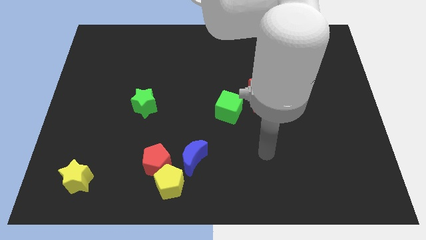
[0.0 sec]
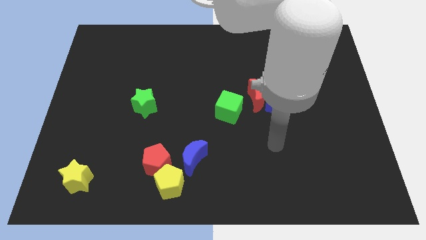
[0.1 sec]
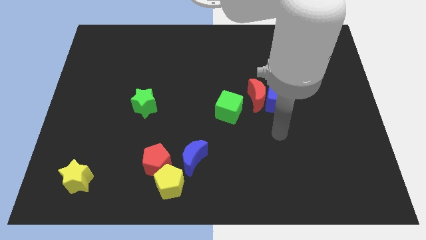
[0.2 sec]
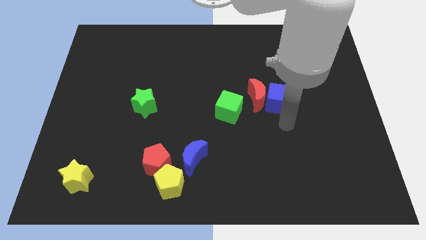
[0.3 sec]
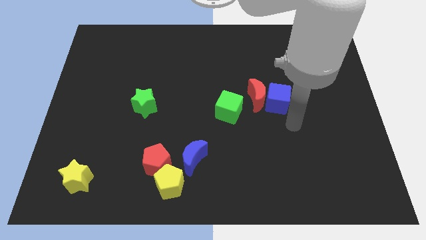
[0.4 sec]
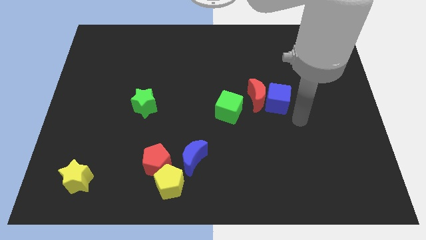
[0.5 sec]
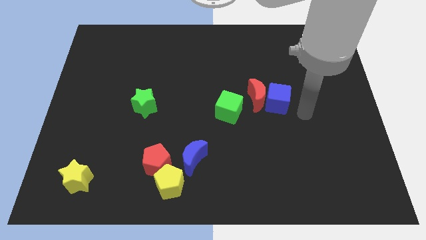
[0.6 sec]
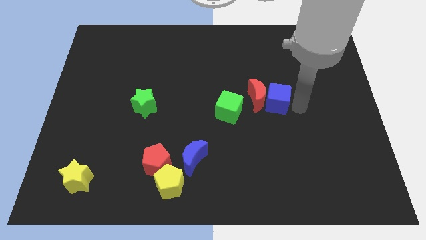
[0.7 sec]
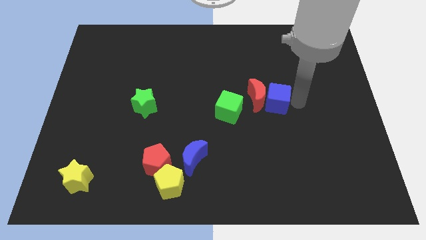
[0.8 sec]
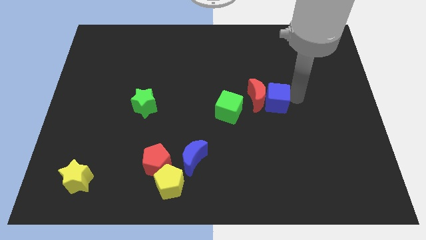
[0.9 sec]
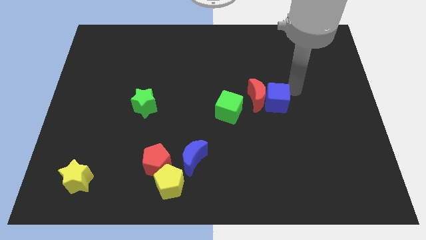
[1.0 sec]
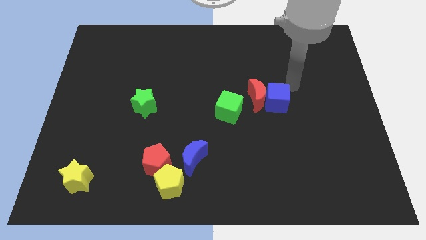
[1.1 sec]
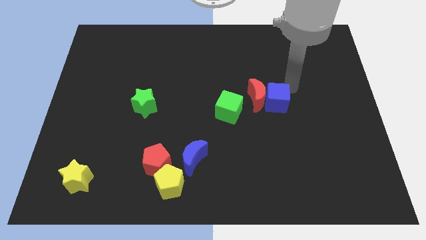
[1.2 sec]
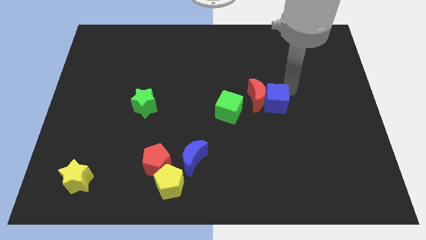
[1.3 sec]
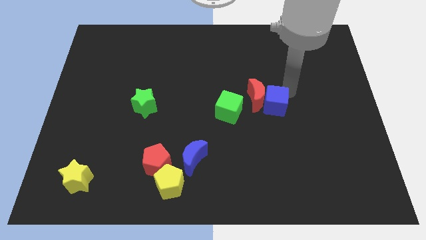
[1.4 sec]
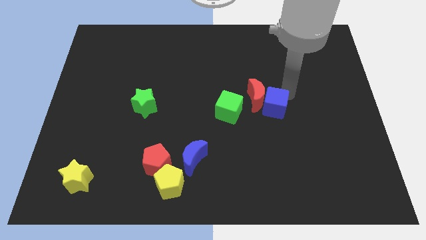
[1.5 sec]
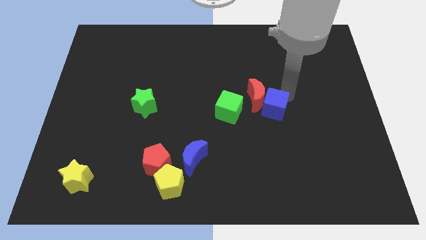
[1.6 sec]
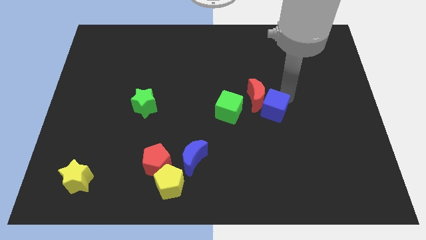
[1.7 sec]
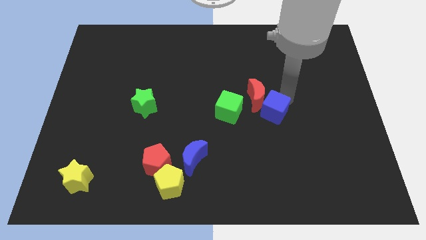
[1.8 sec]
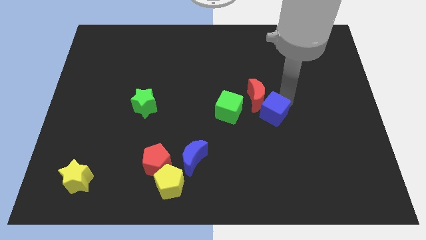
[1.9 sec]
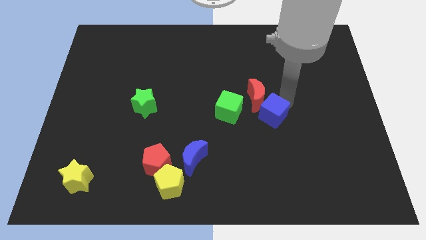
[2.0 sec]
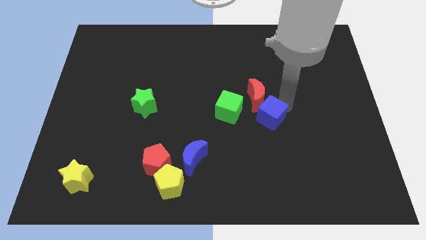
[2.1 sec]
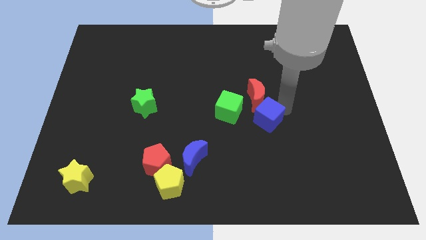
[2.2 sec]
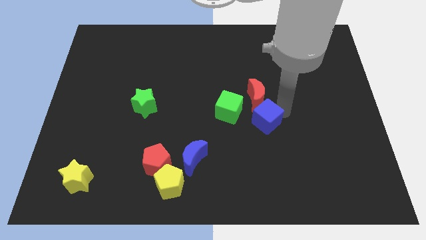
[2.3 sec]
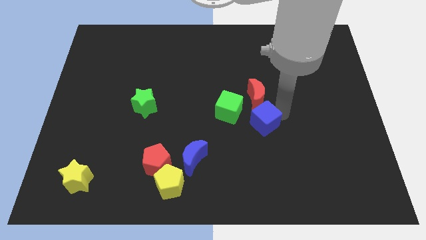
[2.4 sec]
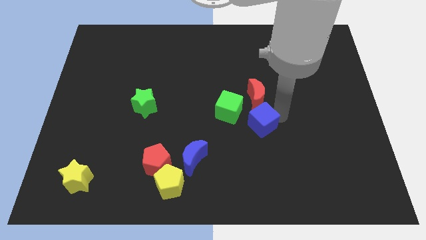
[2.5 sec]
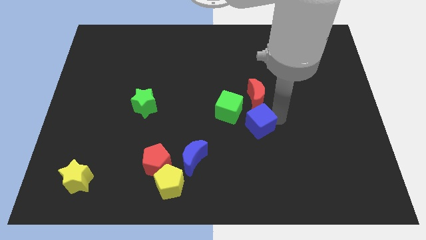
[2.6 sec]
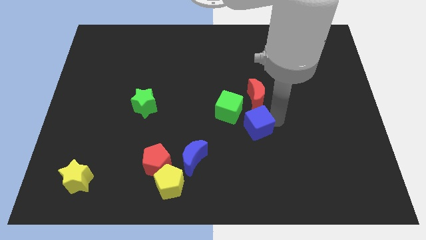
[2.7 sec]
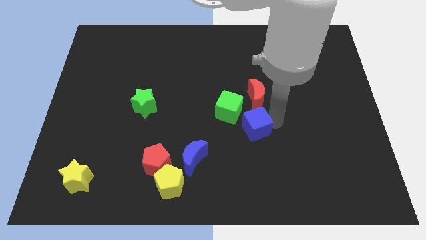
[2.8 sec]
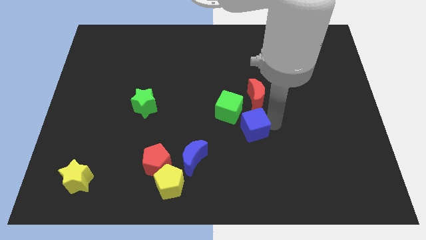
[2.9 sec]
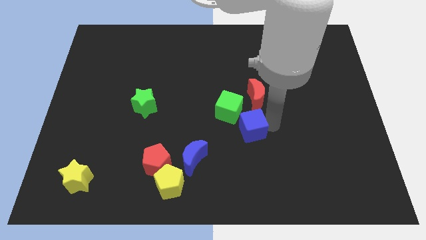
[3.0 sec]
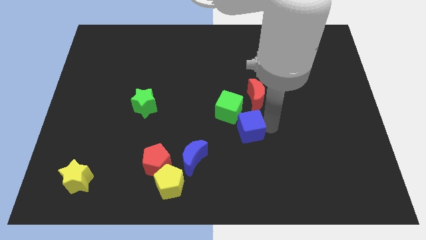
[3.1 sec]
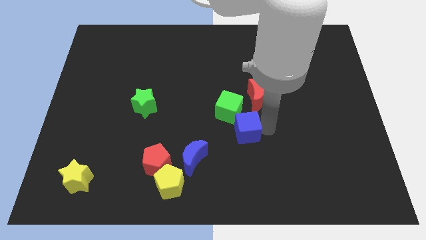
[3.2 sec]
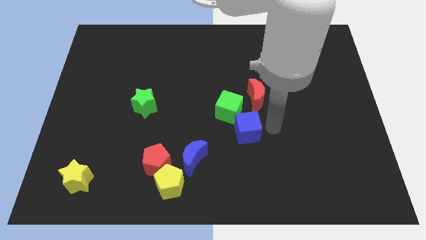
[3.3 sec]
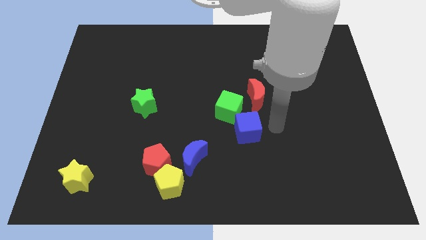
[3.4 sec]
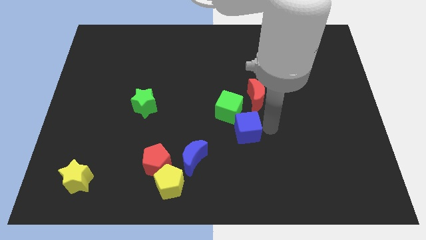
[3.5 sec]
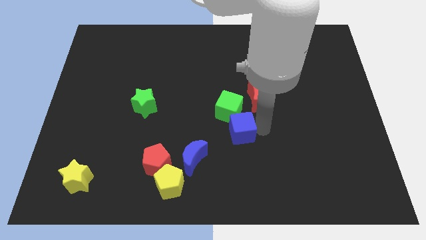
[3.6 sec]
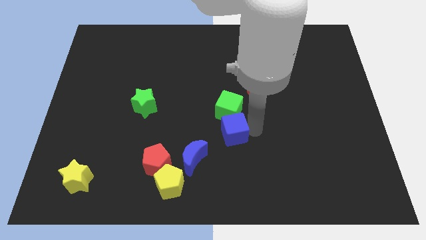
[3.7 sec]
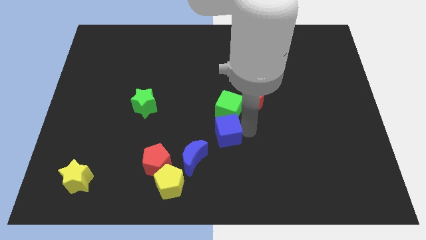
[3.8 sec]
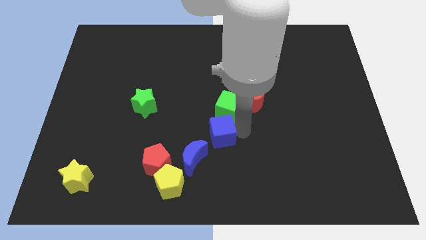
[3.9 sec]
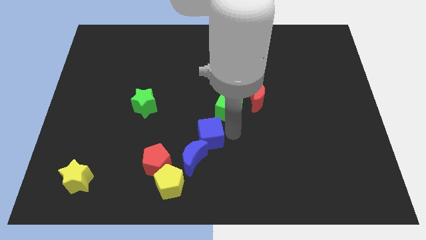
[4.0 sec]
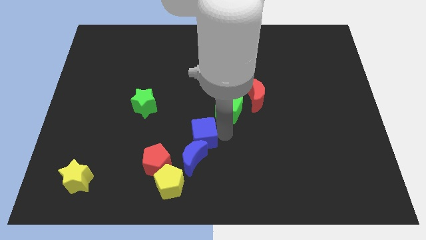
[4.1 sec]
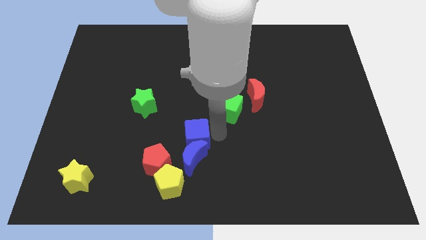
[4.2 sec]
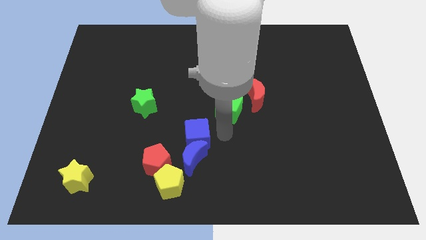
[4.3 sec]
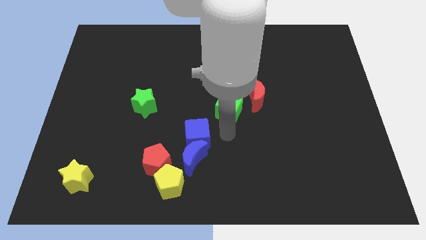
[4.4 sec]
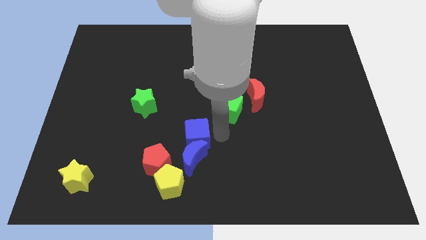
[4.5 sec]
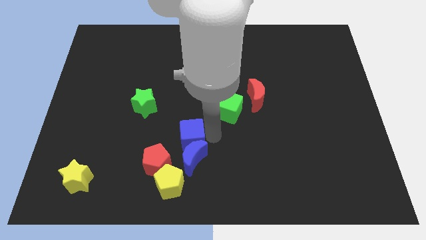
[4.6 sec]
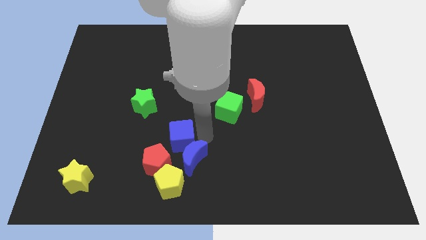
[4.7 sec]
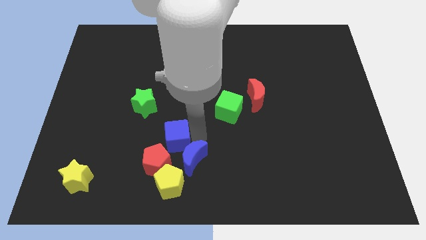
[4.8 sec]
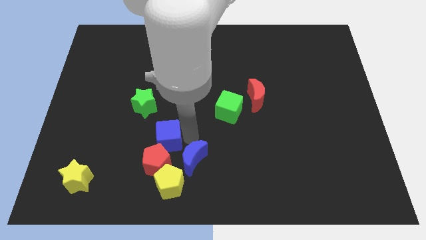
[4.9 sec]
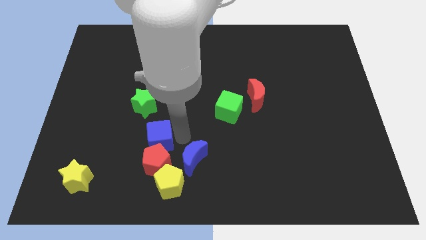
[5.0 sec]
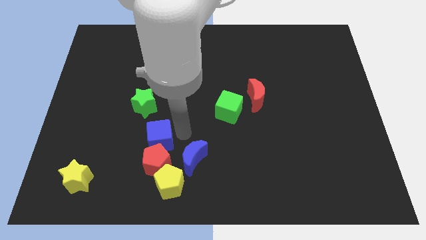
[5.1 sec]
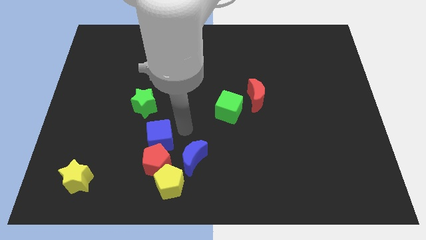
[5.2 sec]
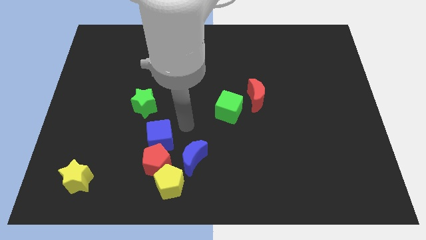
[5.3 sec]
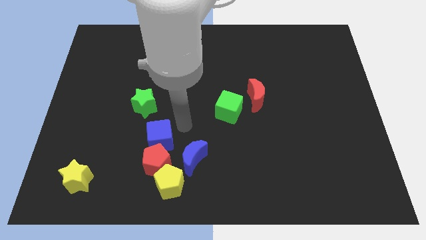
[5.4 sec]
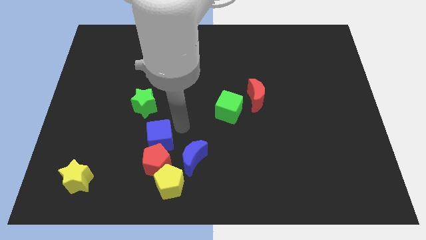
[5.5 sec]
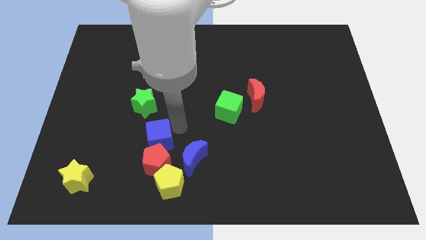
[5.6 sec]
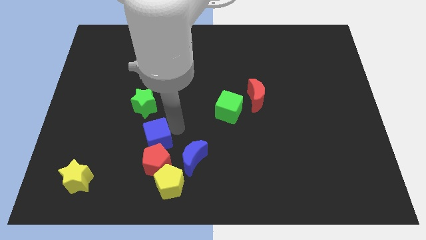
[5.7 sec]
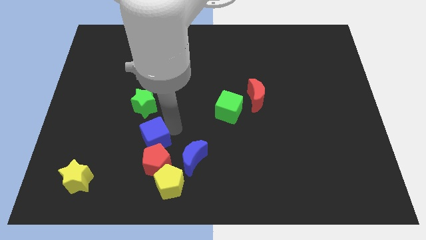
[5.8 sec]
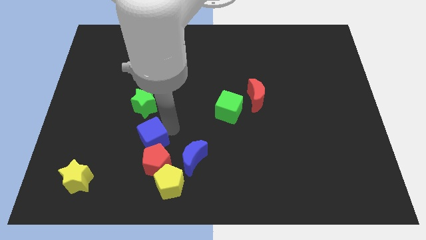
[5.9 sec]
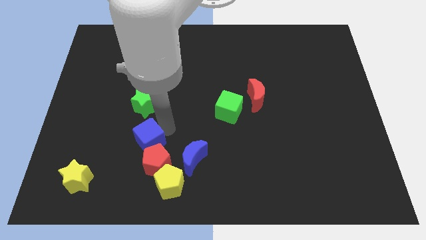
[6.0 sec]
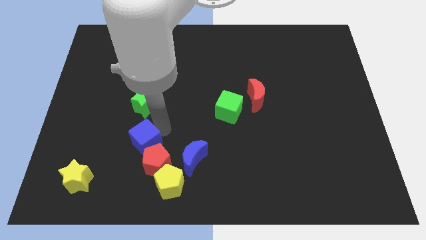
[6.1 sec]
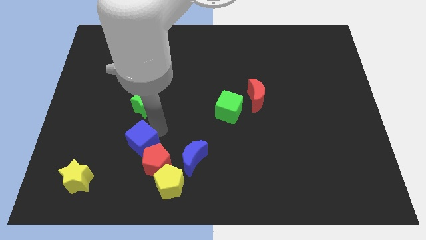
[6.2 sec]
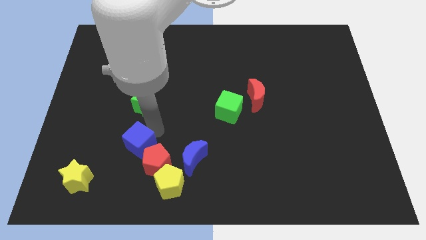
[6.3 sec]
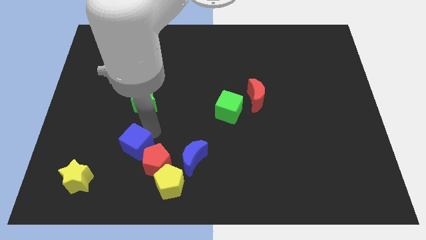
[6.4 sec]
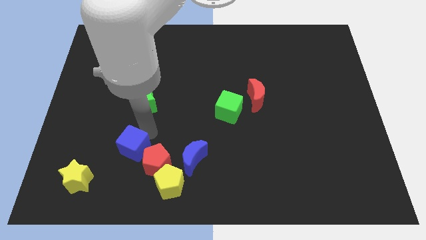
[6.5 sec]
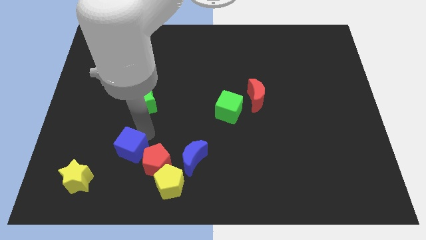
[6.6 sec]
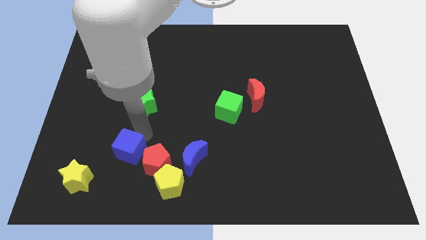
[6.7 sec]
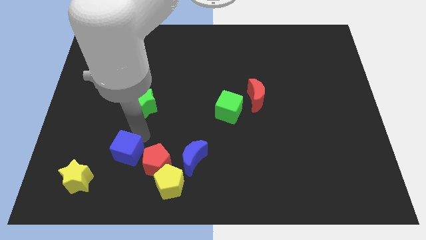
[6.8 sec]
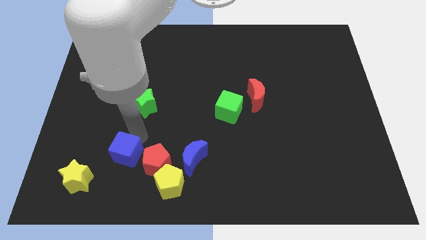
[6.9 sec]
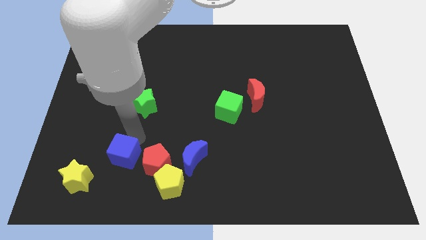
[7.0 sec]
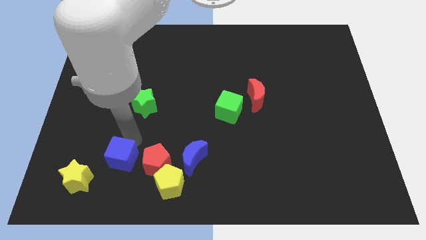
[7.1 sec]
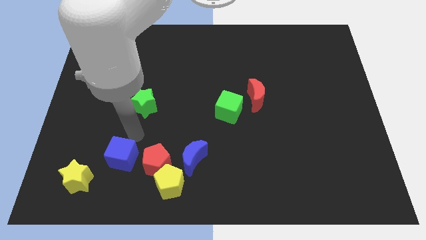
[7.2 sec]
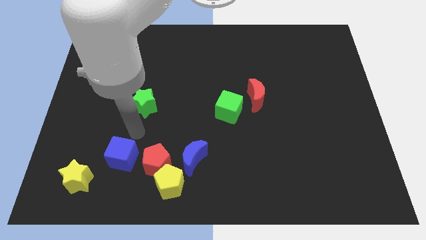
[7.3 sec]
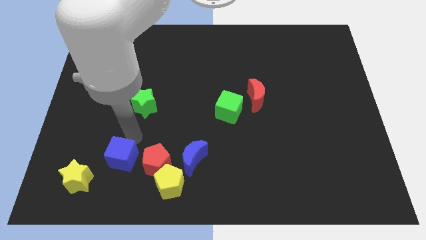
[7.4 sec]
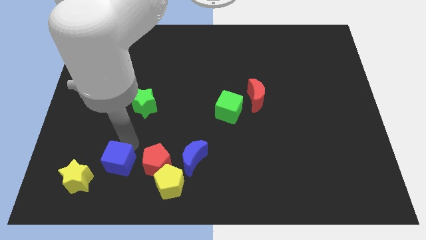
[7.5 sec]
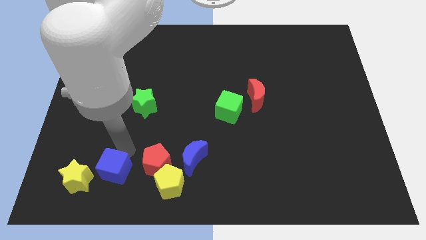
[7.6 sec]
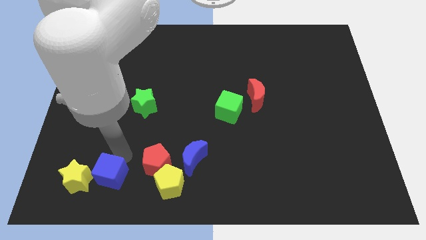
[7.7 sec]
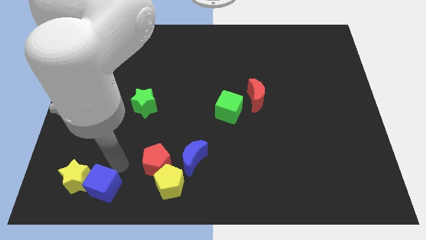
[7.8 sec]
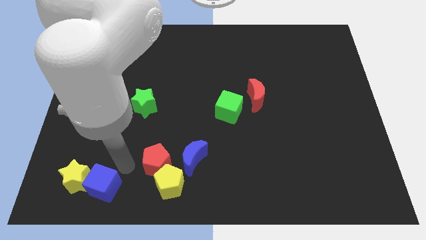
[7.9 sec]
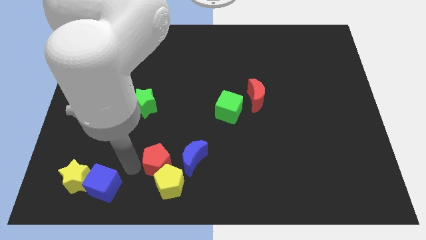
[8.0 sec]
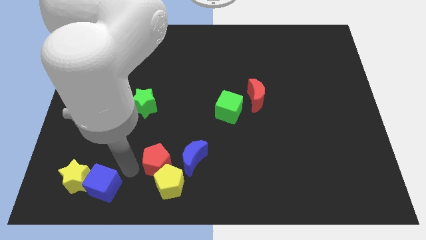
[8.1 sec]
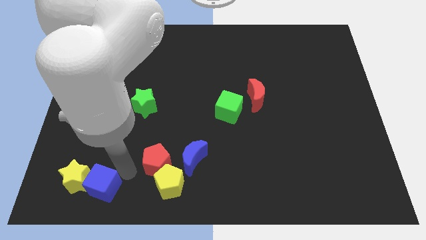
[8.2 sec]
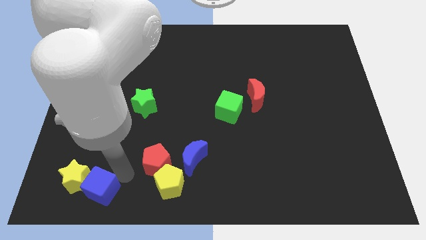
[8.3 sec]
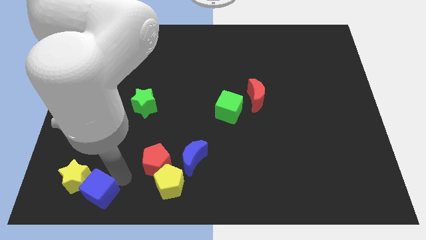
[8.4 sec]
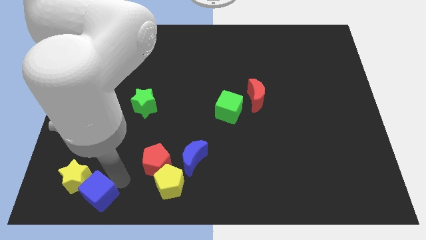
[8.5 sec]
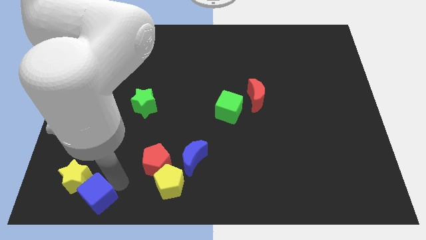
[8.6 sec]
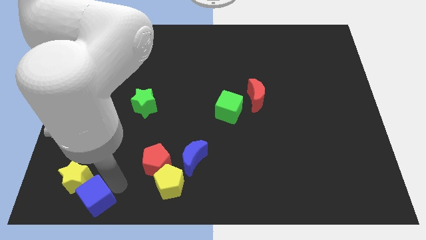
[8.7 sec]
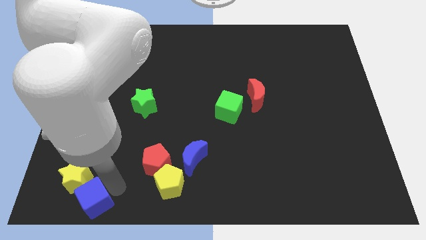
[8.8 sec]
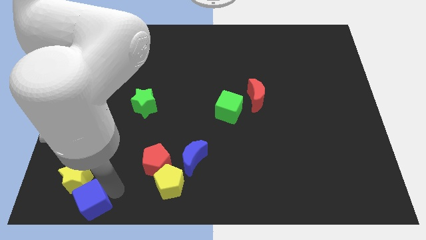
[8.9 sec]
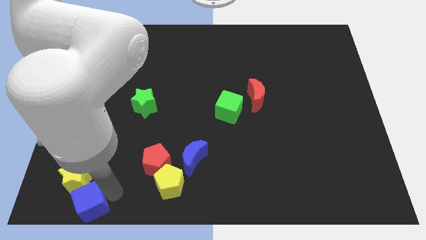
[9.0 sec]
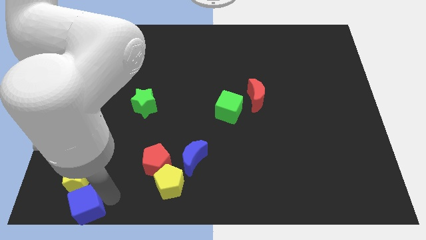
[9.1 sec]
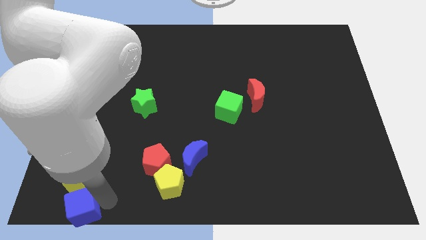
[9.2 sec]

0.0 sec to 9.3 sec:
put the blue cube to the lower left corner
